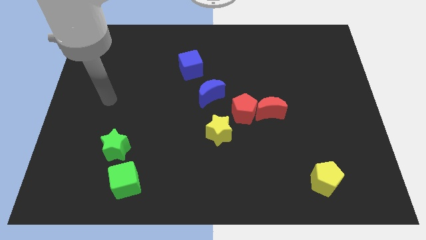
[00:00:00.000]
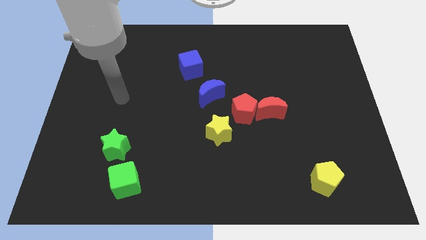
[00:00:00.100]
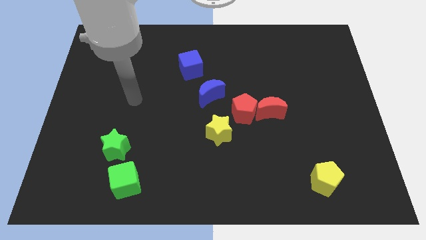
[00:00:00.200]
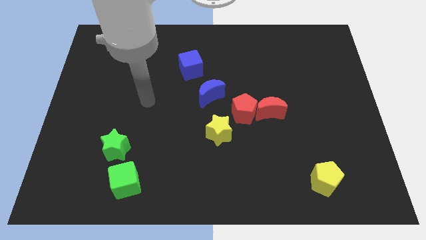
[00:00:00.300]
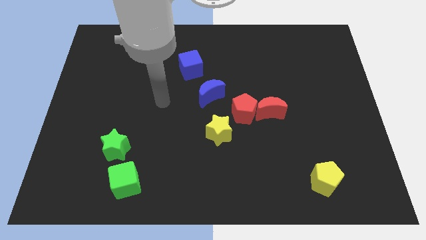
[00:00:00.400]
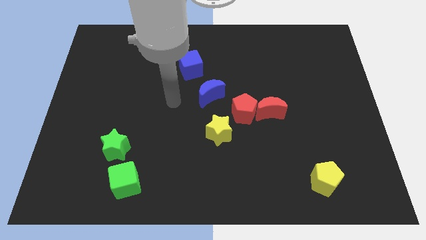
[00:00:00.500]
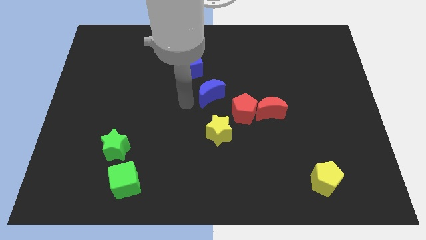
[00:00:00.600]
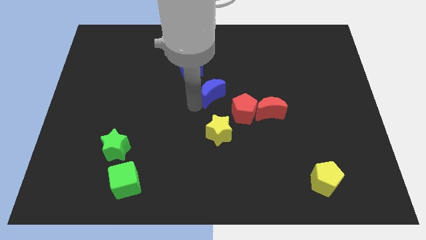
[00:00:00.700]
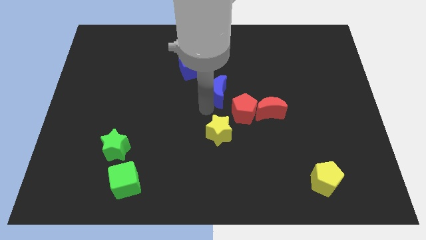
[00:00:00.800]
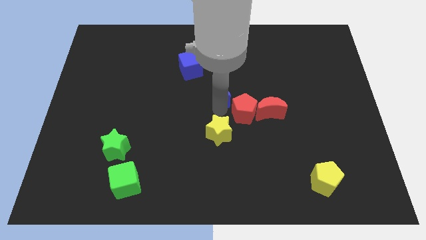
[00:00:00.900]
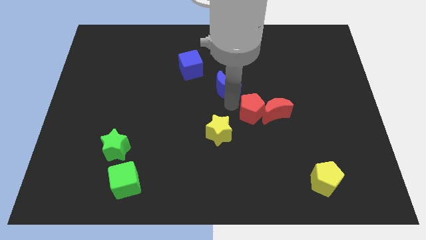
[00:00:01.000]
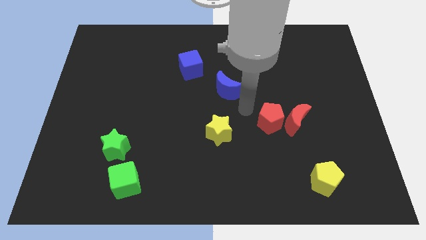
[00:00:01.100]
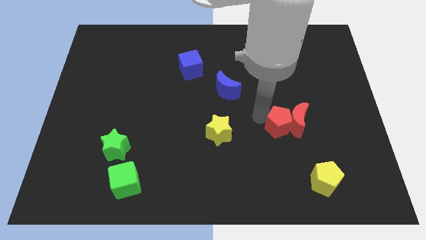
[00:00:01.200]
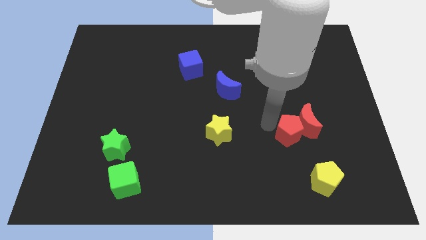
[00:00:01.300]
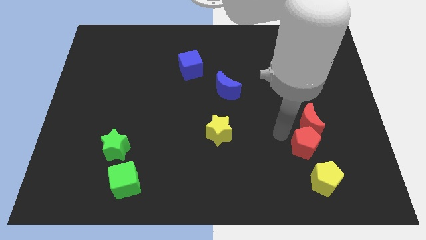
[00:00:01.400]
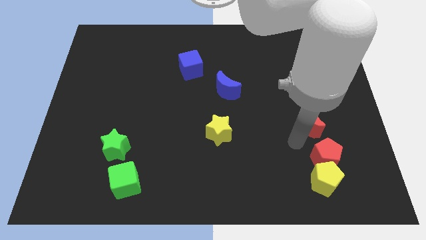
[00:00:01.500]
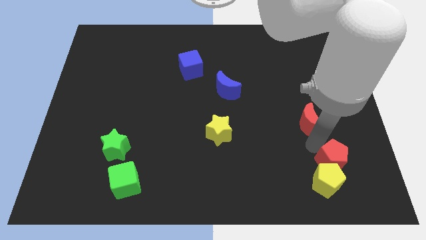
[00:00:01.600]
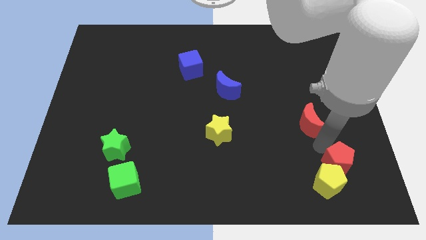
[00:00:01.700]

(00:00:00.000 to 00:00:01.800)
separate the red moon from the red pentagon

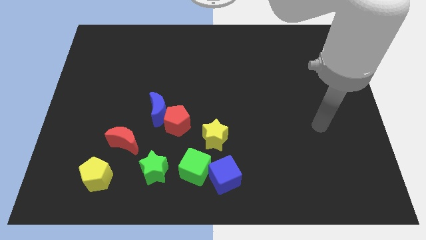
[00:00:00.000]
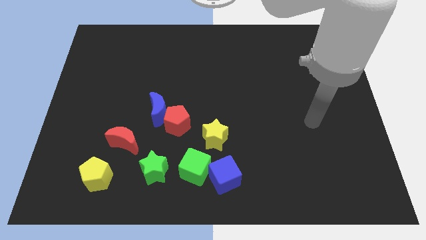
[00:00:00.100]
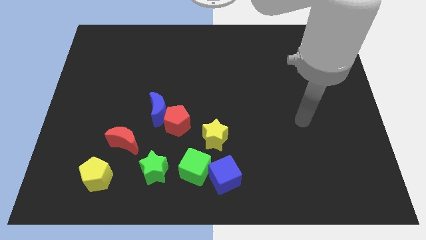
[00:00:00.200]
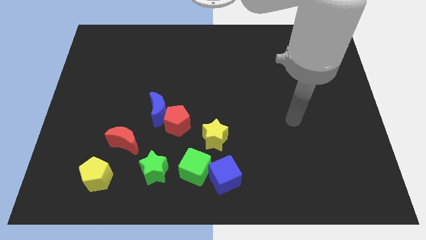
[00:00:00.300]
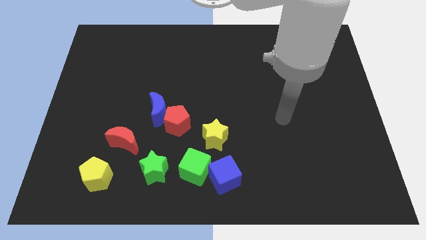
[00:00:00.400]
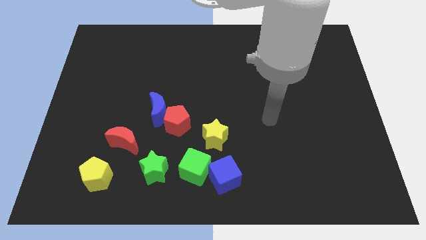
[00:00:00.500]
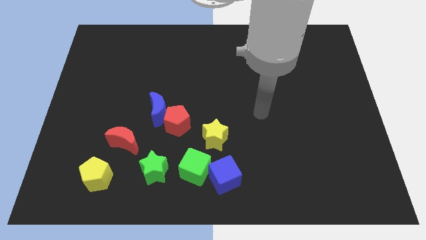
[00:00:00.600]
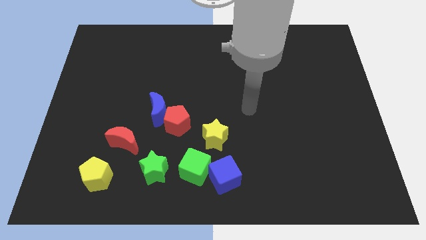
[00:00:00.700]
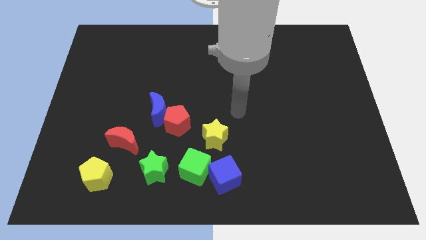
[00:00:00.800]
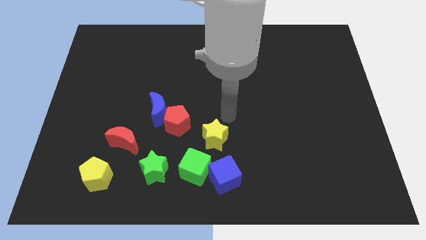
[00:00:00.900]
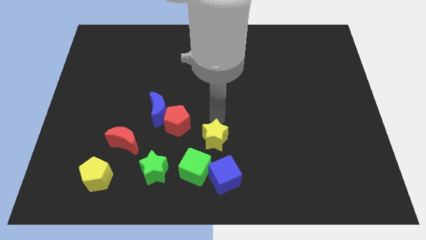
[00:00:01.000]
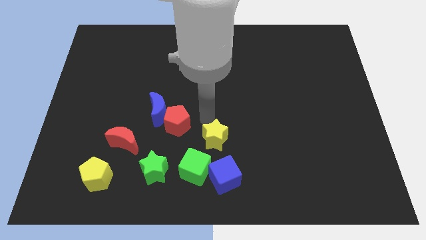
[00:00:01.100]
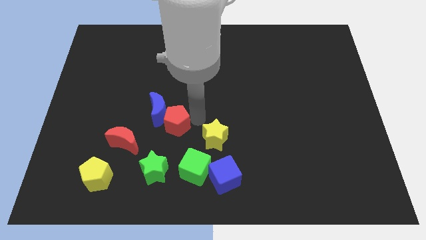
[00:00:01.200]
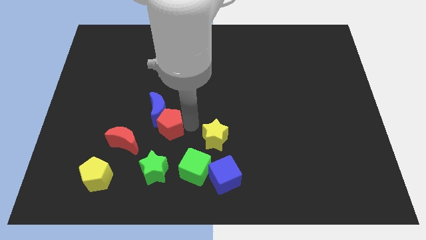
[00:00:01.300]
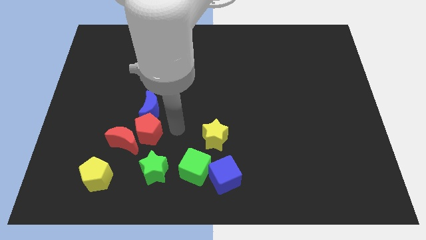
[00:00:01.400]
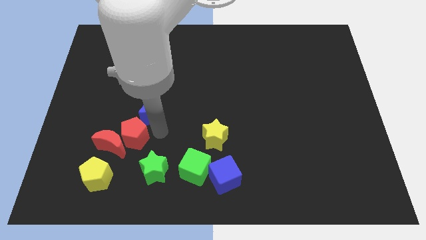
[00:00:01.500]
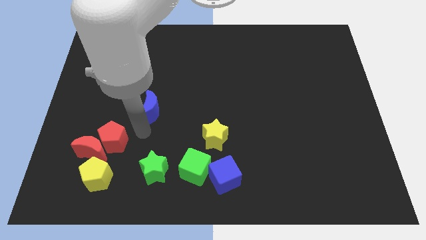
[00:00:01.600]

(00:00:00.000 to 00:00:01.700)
pull the blue moon apart from the red pentagon

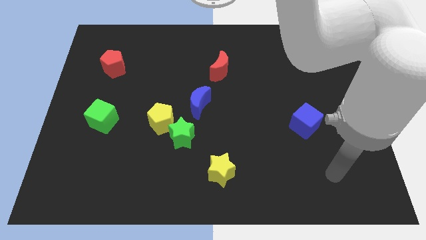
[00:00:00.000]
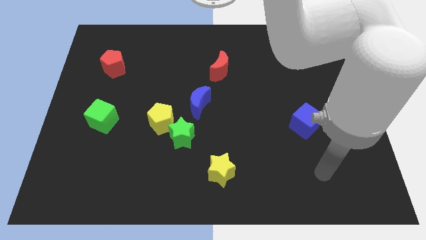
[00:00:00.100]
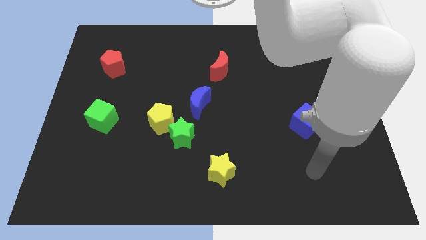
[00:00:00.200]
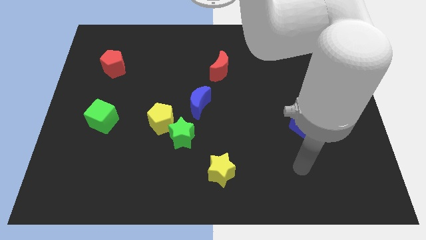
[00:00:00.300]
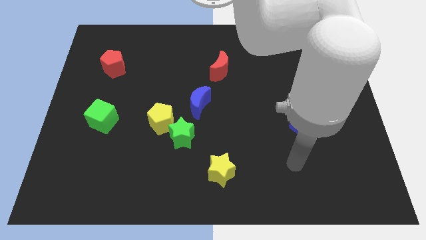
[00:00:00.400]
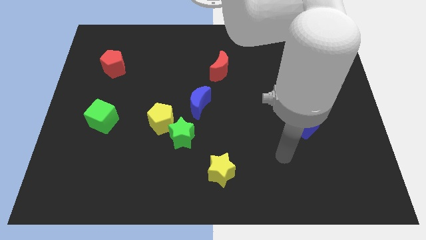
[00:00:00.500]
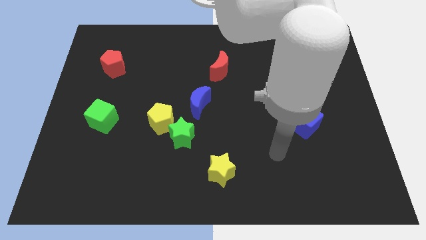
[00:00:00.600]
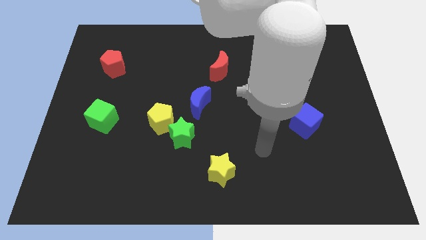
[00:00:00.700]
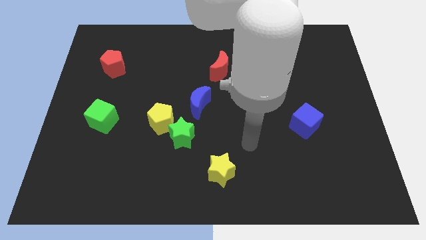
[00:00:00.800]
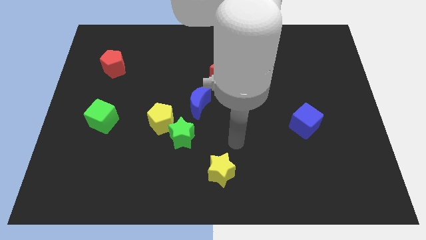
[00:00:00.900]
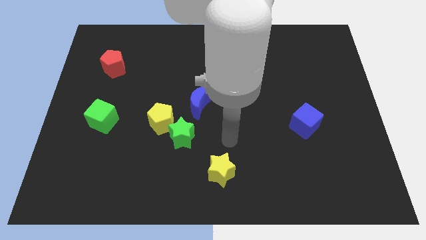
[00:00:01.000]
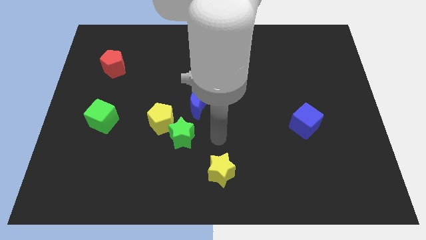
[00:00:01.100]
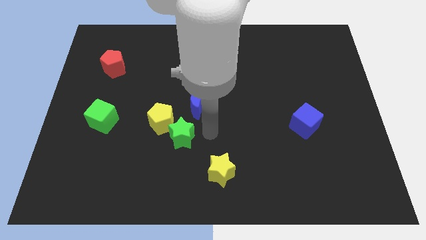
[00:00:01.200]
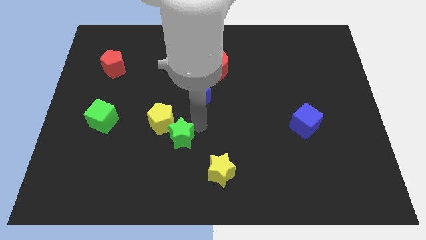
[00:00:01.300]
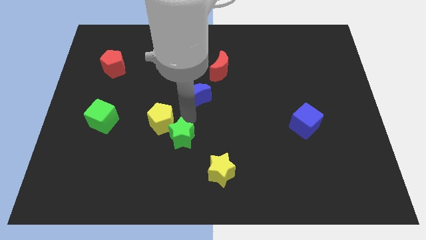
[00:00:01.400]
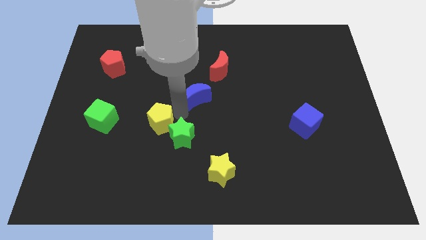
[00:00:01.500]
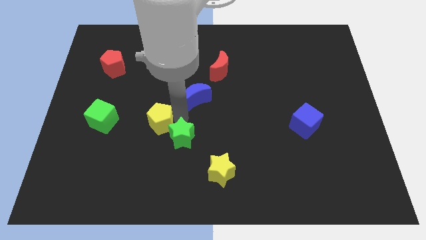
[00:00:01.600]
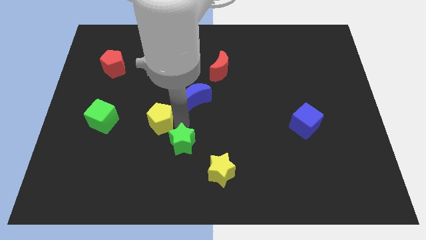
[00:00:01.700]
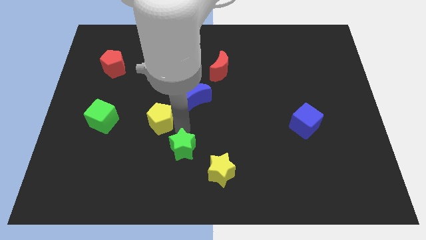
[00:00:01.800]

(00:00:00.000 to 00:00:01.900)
move the green star away from the yellow pentagon and blue moon

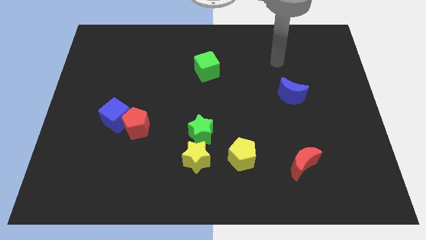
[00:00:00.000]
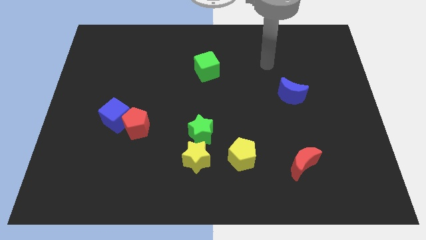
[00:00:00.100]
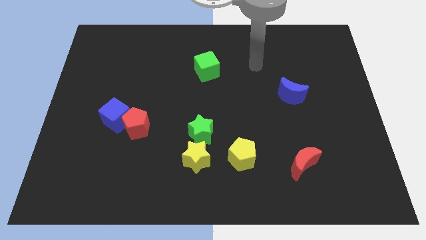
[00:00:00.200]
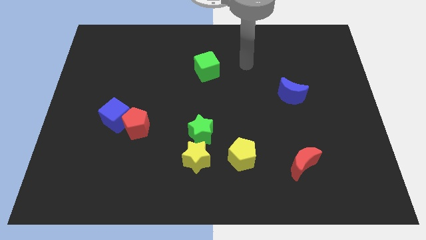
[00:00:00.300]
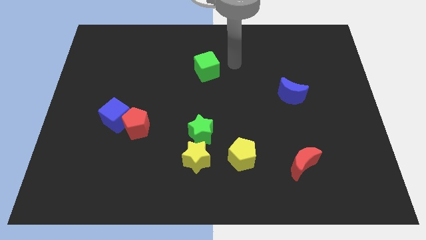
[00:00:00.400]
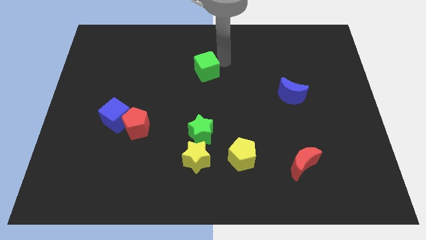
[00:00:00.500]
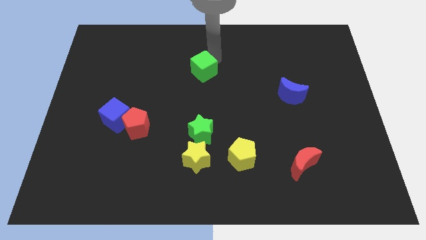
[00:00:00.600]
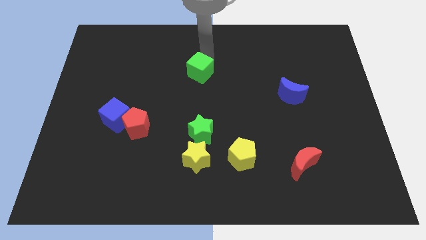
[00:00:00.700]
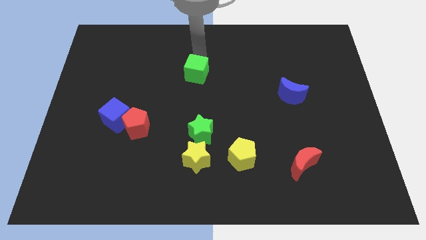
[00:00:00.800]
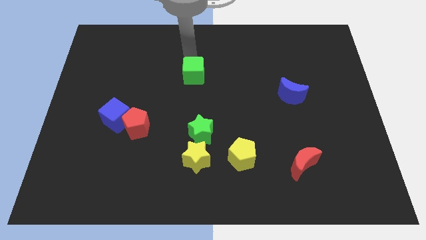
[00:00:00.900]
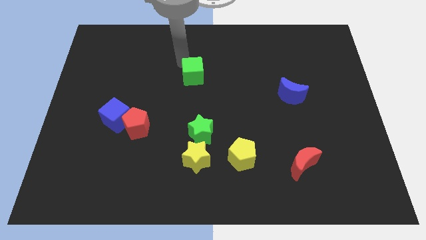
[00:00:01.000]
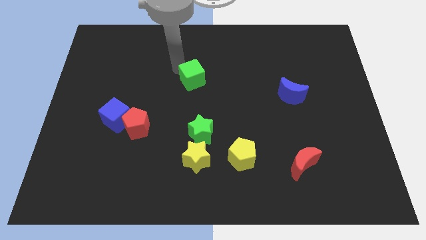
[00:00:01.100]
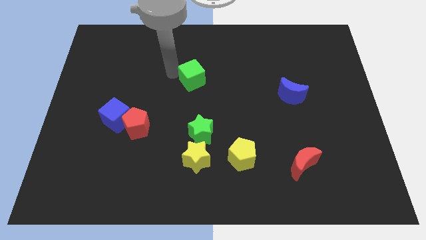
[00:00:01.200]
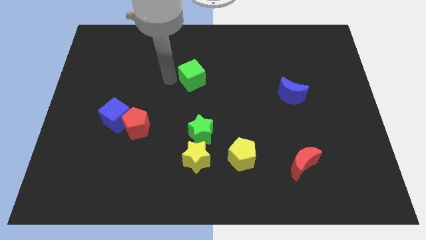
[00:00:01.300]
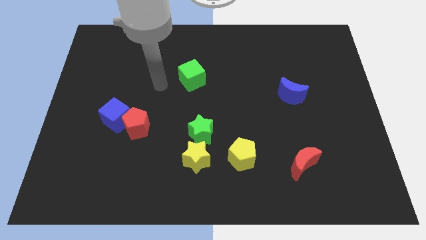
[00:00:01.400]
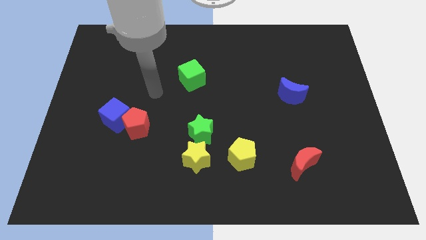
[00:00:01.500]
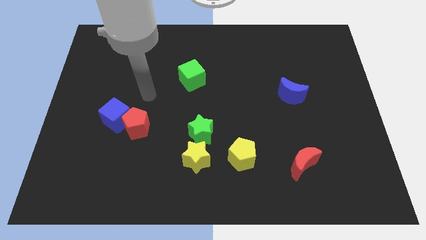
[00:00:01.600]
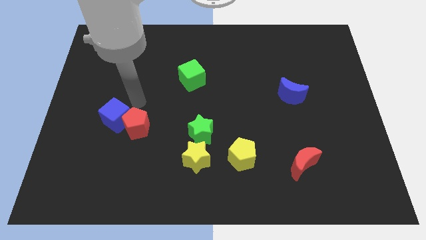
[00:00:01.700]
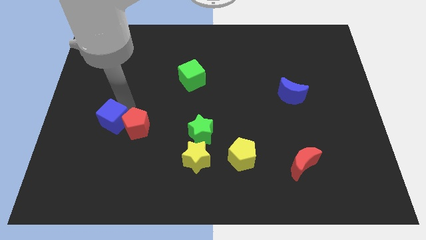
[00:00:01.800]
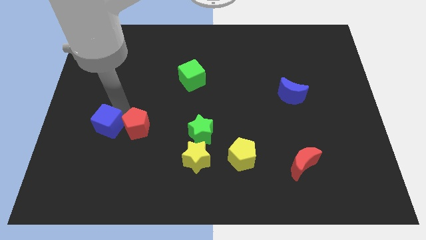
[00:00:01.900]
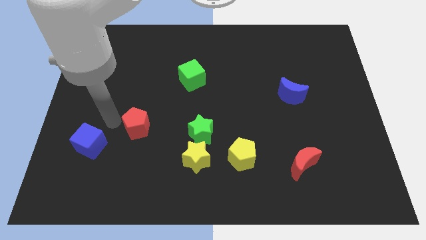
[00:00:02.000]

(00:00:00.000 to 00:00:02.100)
separate the red pentagon from the blue cube

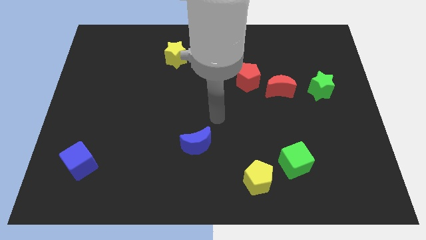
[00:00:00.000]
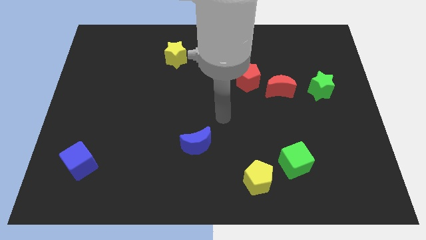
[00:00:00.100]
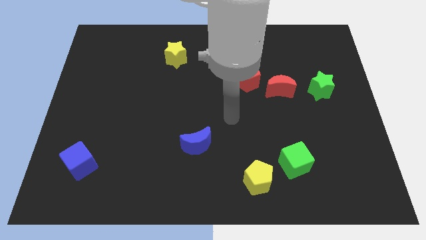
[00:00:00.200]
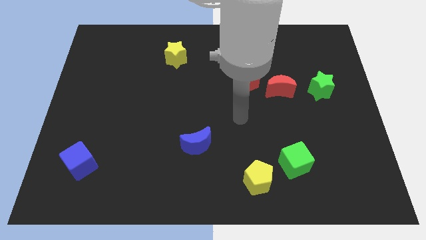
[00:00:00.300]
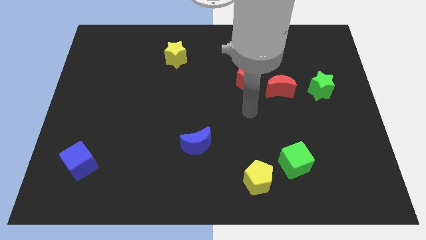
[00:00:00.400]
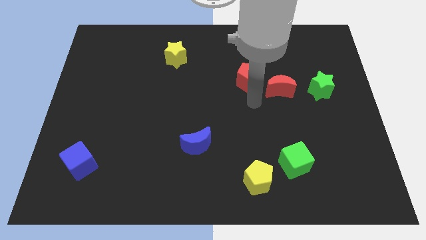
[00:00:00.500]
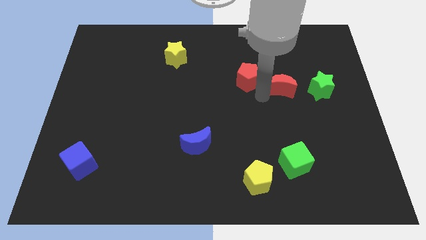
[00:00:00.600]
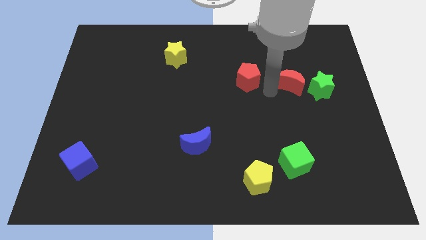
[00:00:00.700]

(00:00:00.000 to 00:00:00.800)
pull the red pentagon apart from the red moon

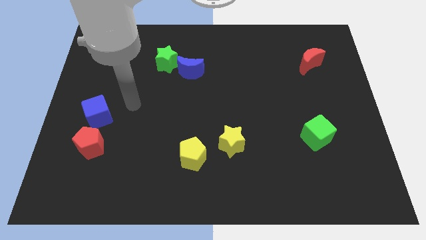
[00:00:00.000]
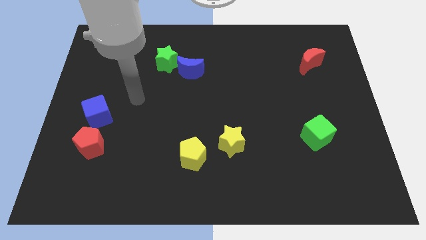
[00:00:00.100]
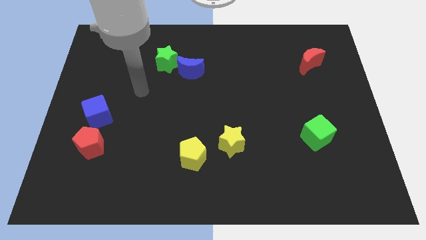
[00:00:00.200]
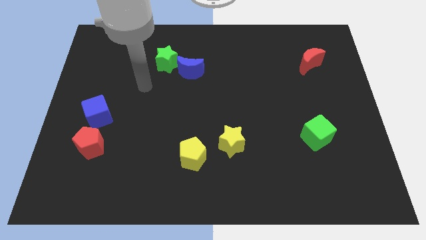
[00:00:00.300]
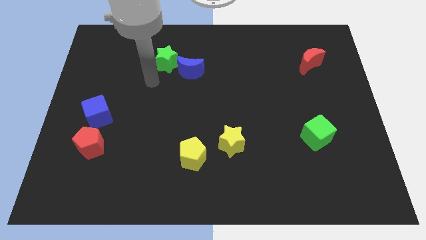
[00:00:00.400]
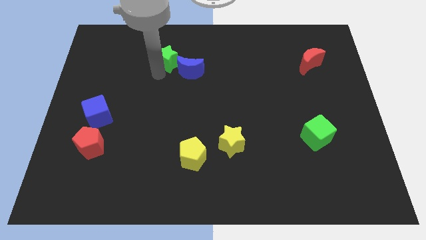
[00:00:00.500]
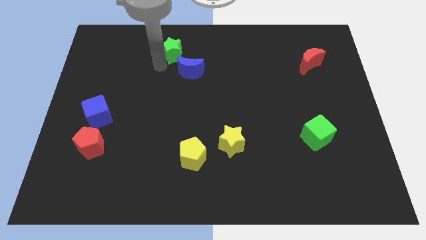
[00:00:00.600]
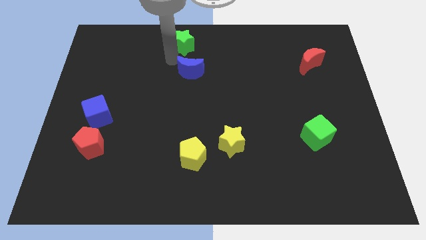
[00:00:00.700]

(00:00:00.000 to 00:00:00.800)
pull the blue moon apart from the green star
